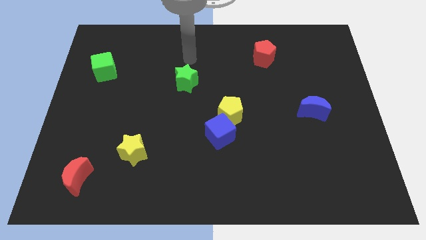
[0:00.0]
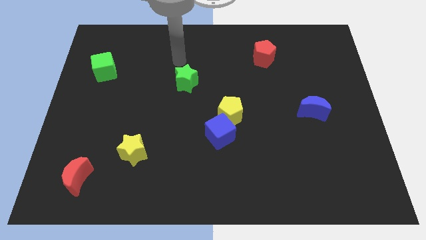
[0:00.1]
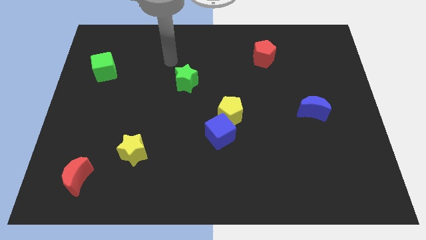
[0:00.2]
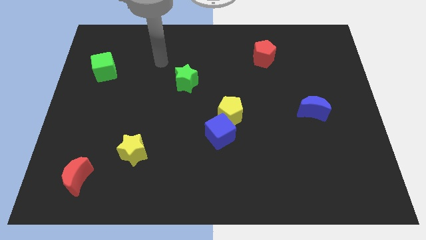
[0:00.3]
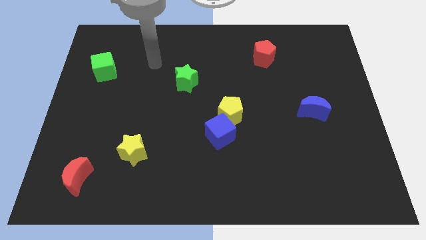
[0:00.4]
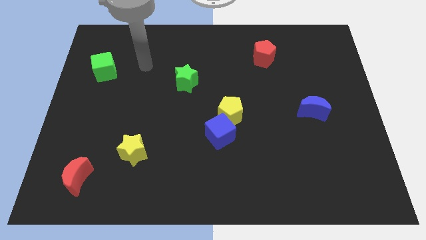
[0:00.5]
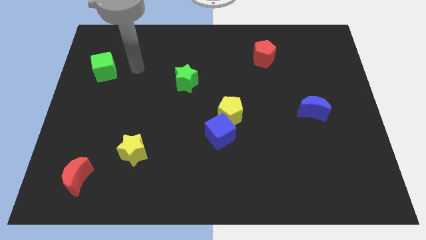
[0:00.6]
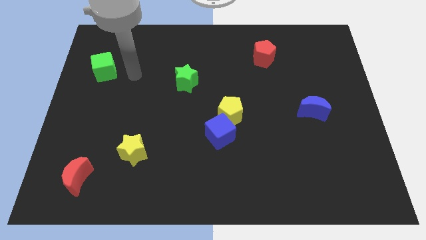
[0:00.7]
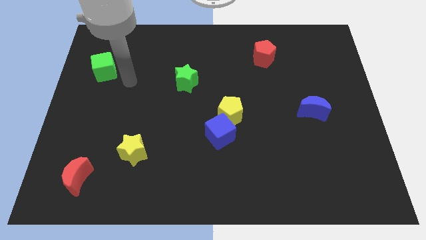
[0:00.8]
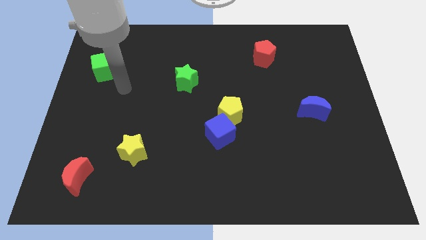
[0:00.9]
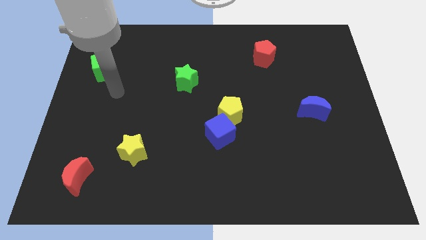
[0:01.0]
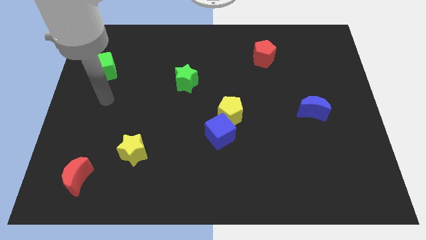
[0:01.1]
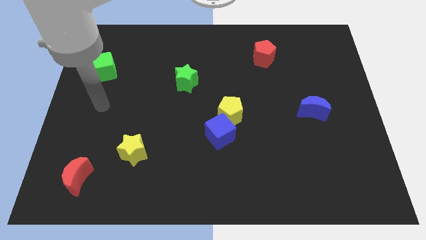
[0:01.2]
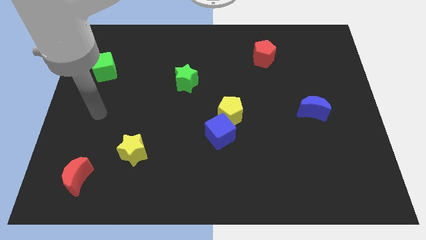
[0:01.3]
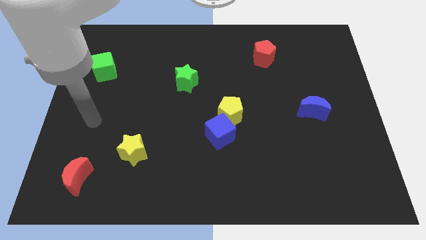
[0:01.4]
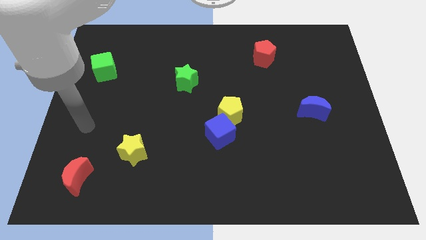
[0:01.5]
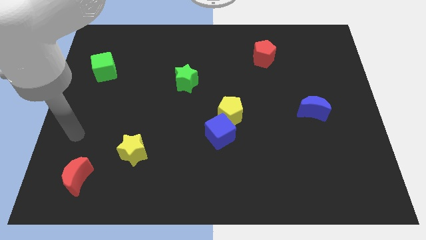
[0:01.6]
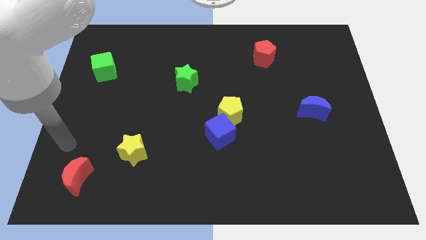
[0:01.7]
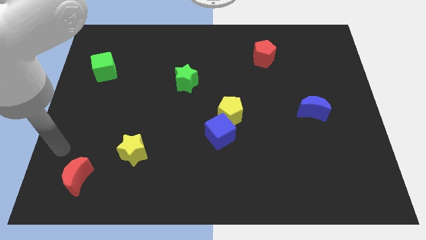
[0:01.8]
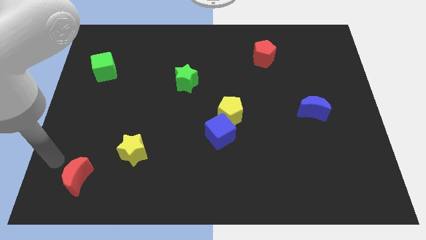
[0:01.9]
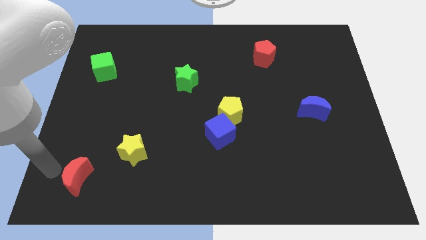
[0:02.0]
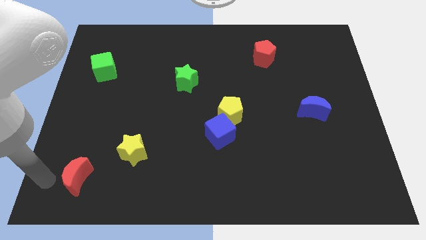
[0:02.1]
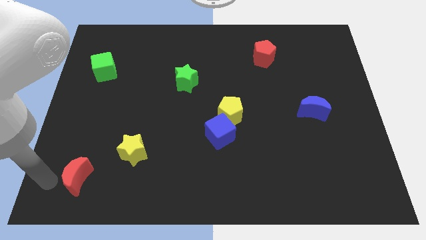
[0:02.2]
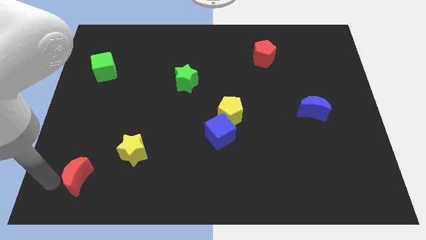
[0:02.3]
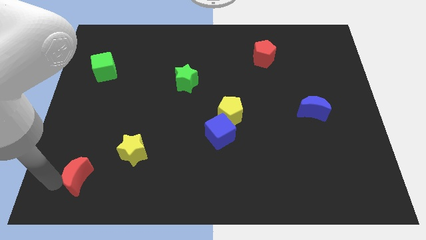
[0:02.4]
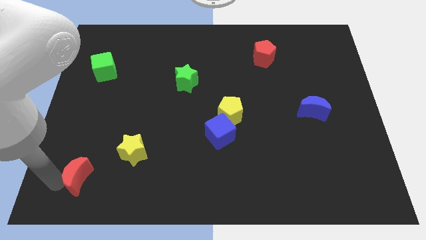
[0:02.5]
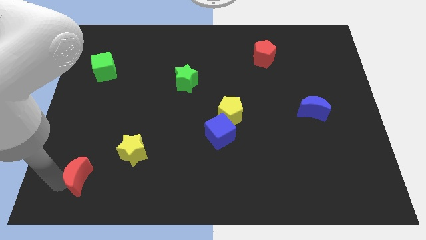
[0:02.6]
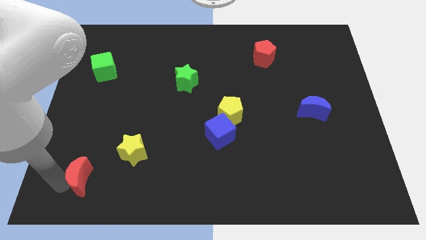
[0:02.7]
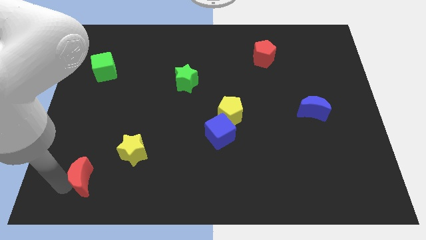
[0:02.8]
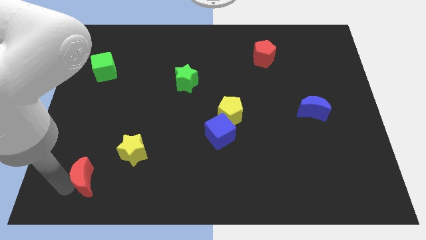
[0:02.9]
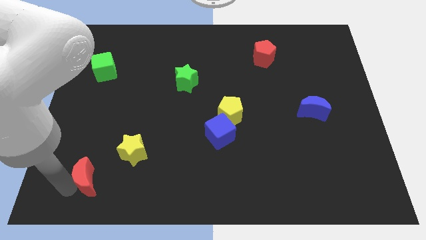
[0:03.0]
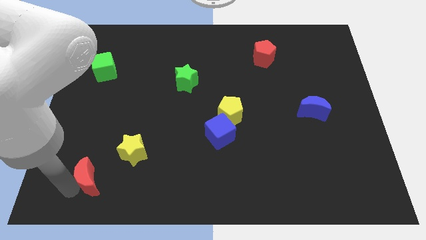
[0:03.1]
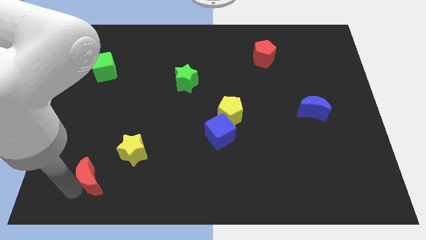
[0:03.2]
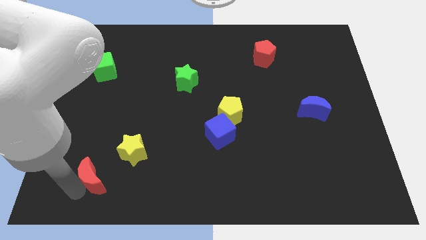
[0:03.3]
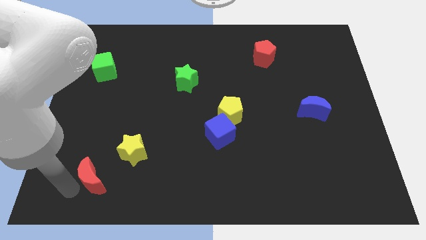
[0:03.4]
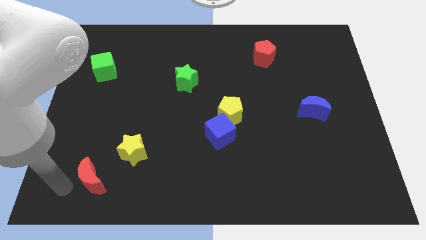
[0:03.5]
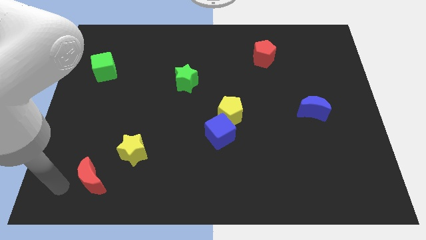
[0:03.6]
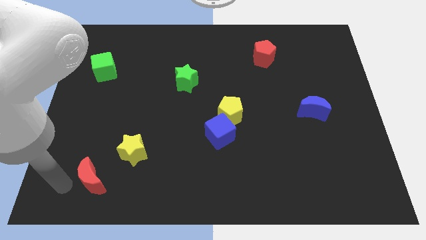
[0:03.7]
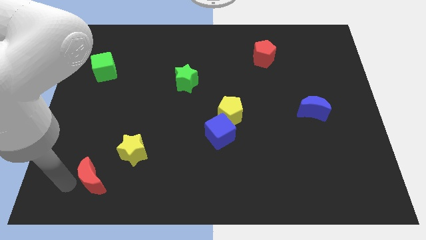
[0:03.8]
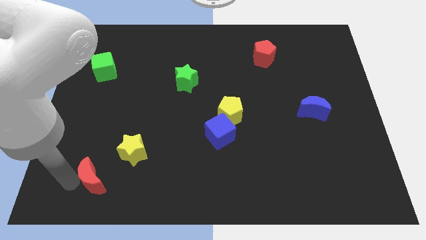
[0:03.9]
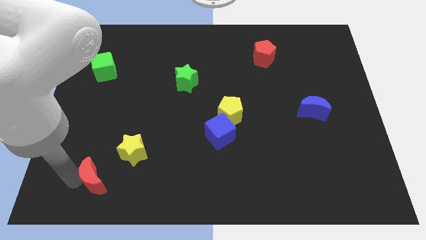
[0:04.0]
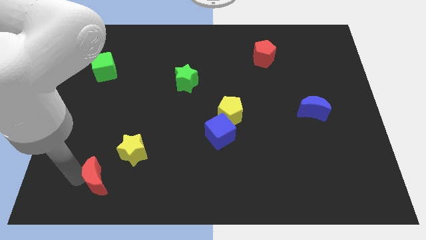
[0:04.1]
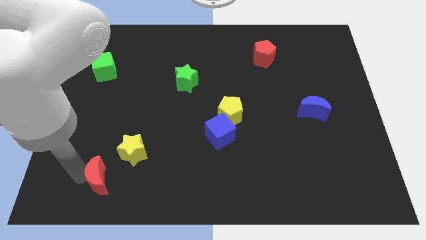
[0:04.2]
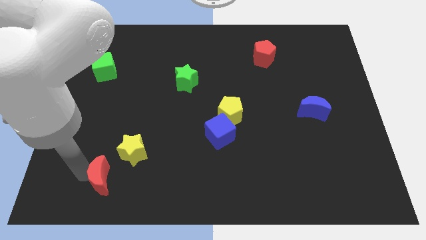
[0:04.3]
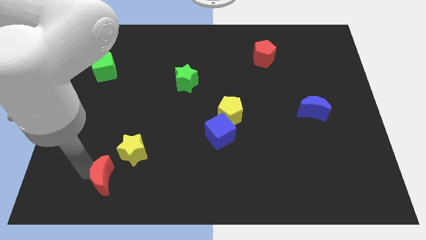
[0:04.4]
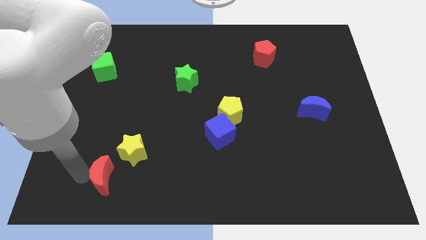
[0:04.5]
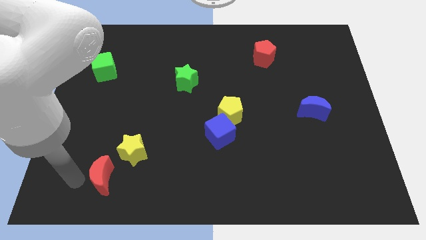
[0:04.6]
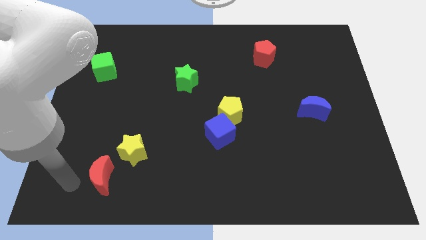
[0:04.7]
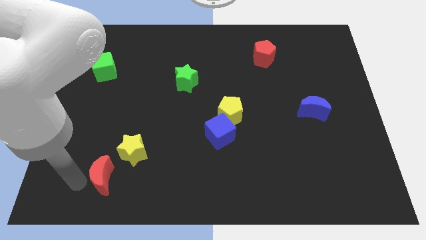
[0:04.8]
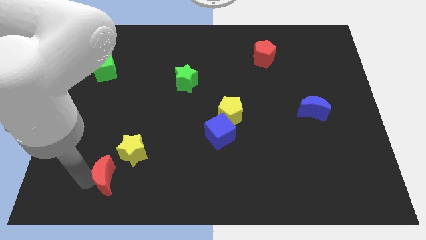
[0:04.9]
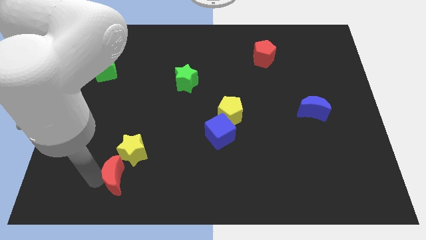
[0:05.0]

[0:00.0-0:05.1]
move the red moon right a little bit

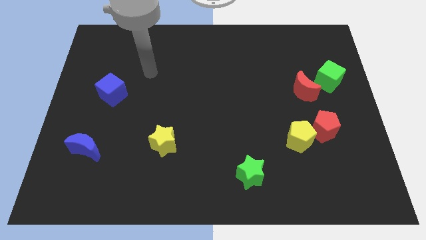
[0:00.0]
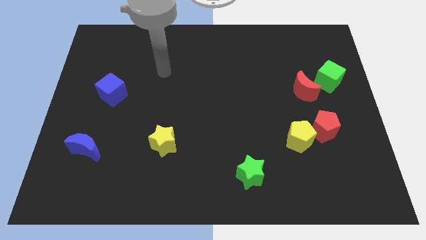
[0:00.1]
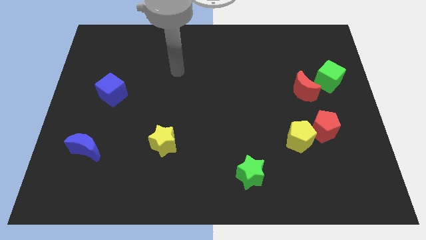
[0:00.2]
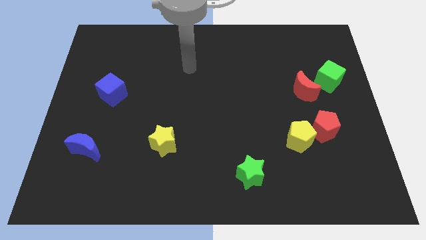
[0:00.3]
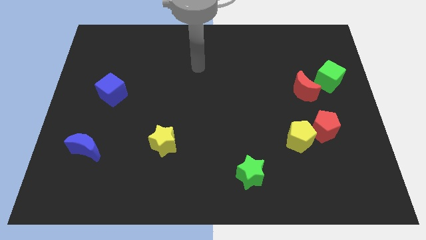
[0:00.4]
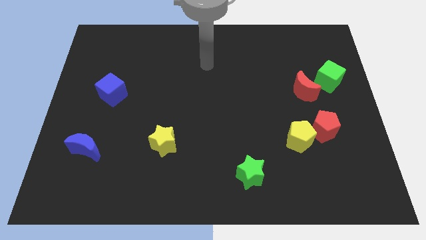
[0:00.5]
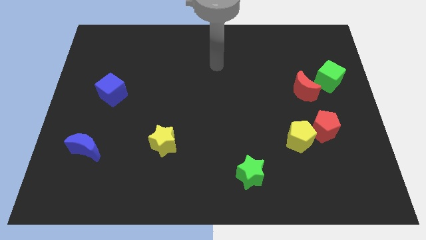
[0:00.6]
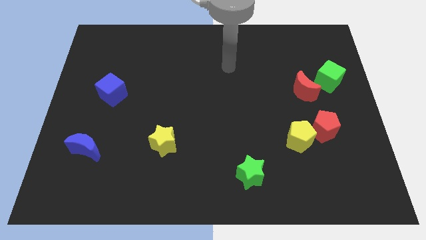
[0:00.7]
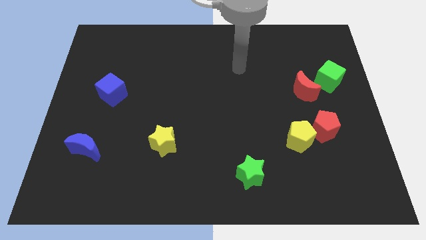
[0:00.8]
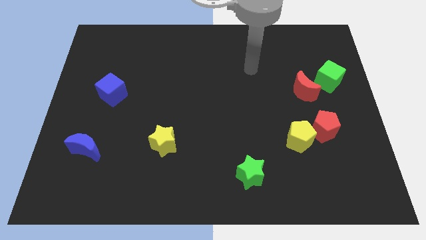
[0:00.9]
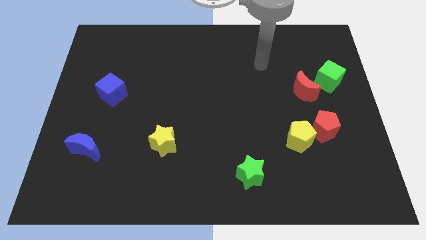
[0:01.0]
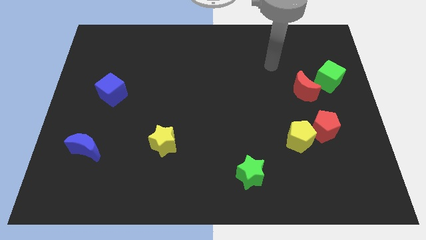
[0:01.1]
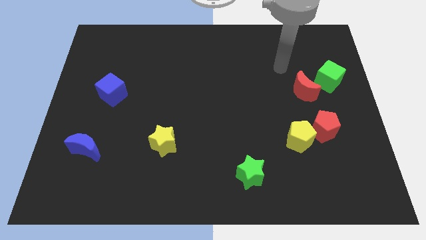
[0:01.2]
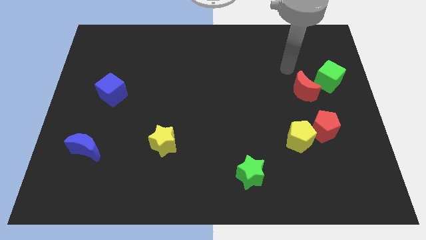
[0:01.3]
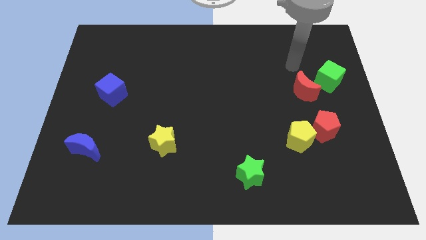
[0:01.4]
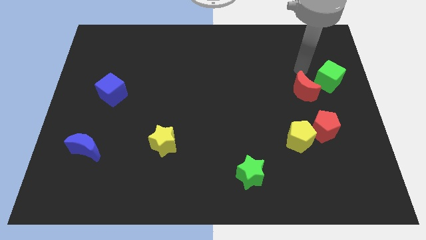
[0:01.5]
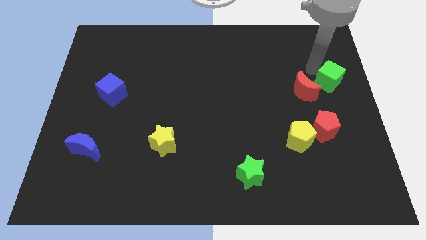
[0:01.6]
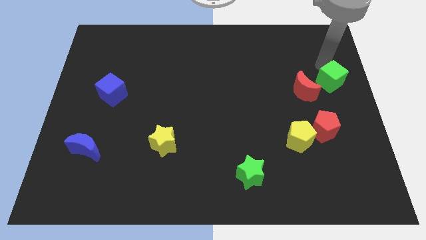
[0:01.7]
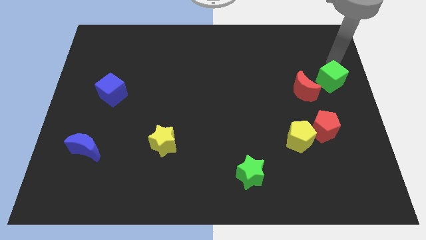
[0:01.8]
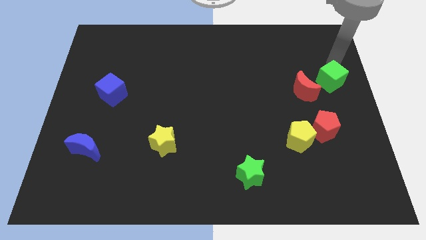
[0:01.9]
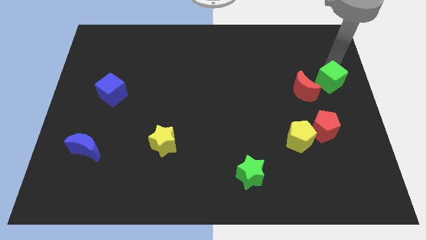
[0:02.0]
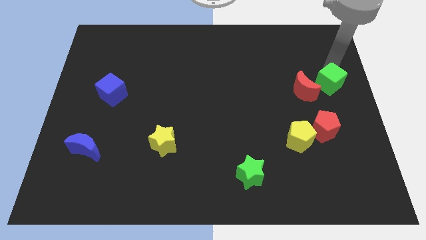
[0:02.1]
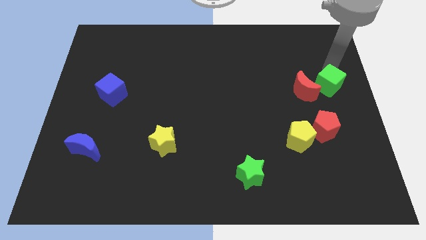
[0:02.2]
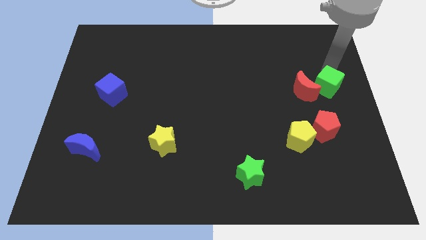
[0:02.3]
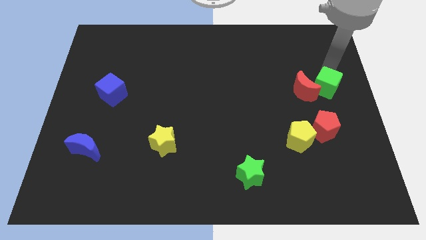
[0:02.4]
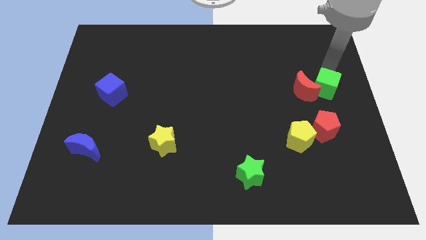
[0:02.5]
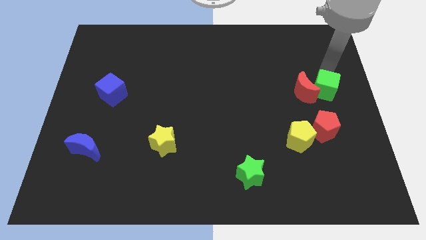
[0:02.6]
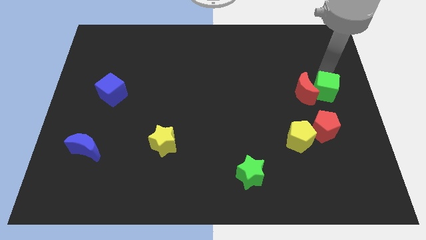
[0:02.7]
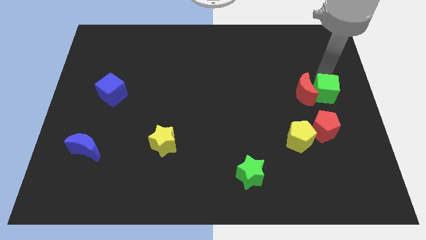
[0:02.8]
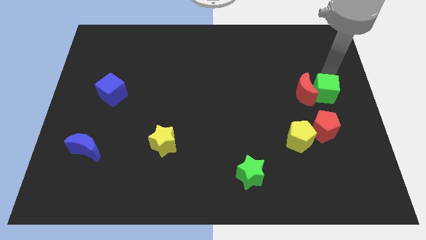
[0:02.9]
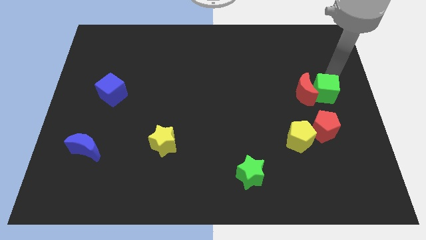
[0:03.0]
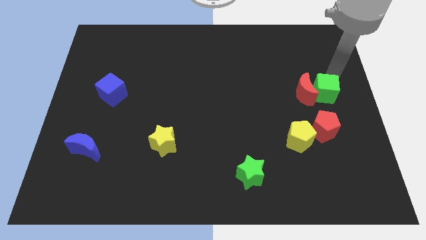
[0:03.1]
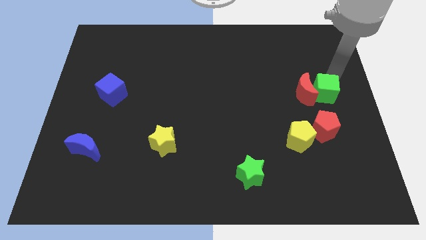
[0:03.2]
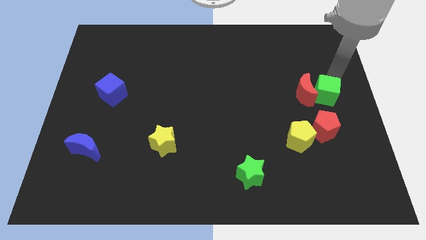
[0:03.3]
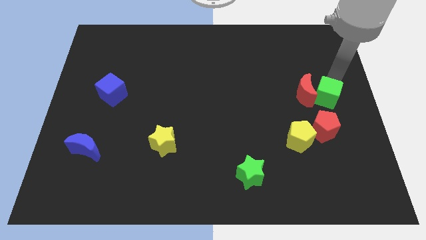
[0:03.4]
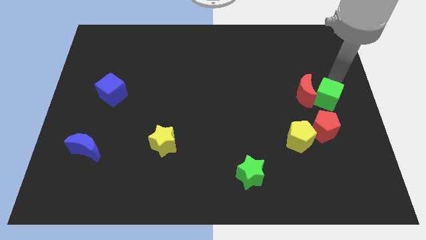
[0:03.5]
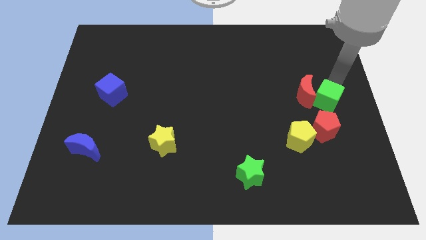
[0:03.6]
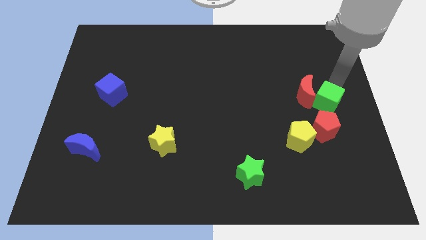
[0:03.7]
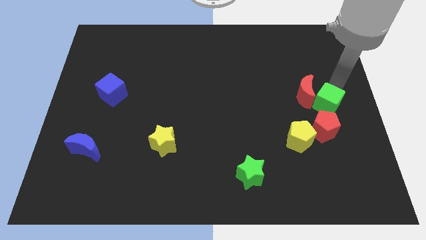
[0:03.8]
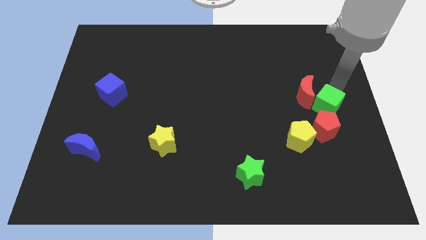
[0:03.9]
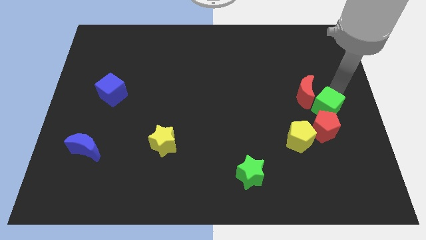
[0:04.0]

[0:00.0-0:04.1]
push the green cube downwards and left a little bit
